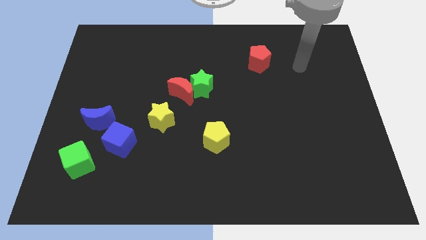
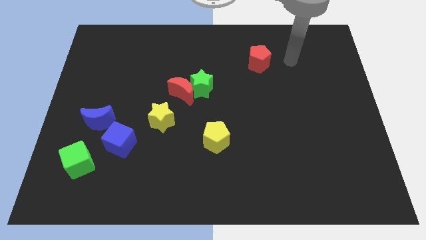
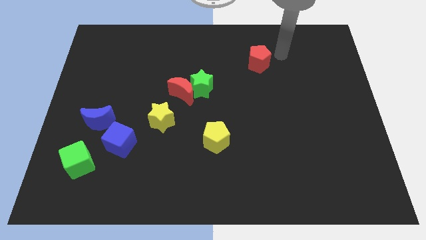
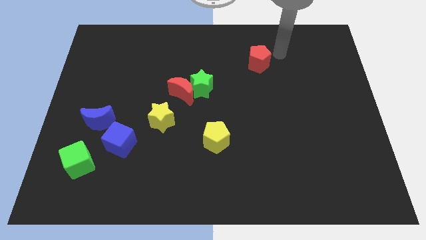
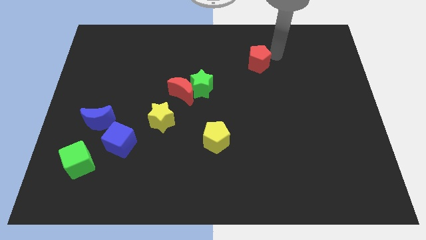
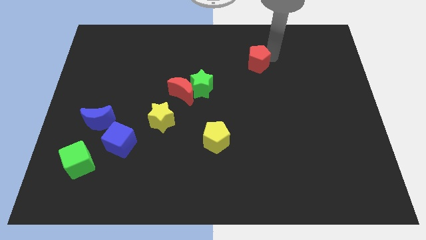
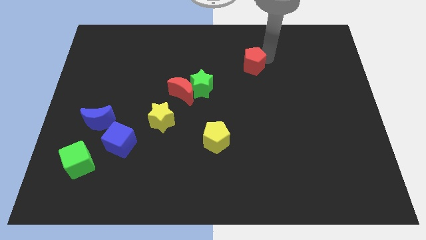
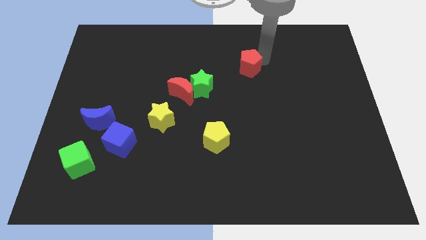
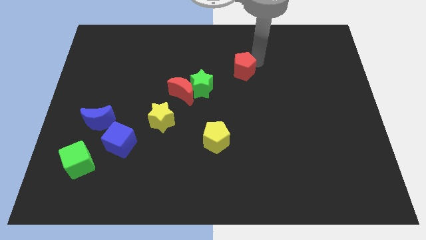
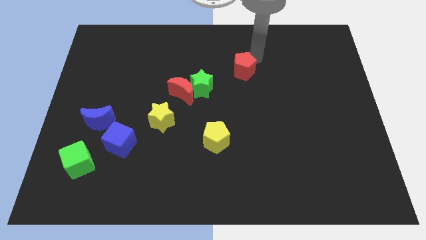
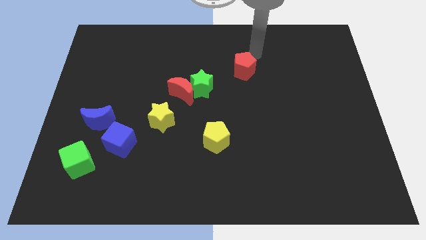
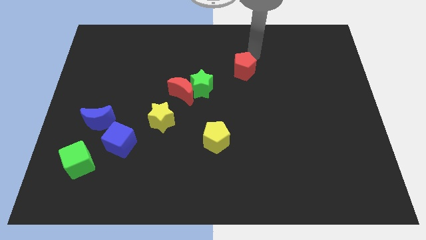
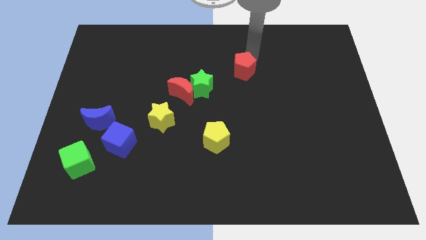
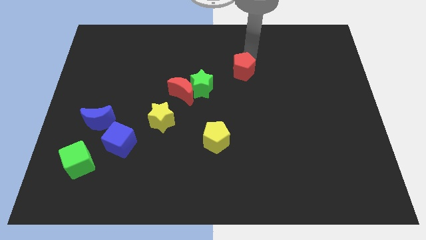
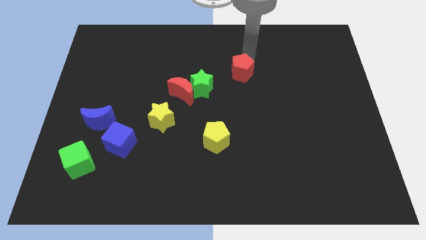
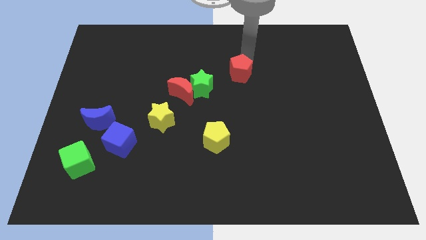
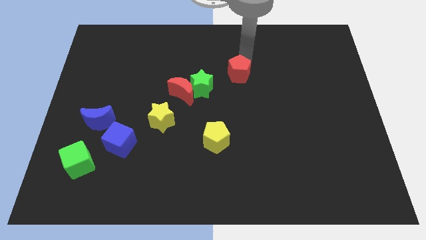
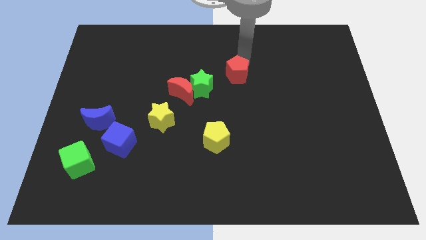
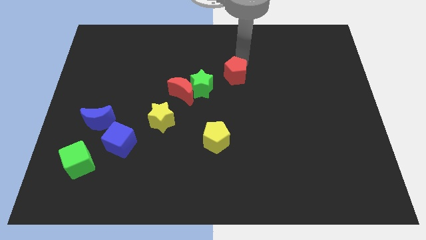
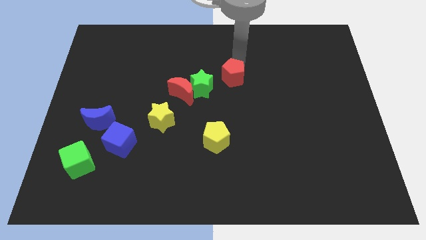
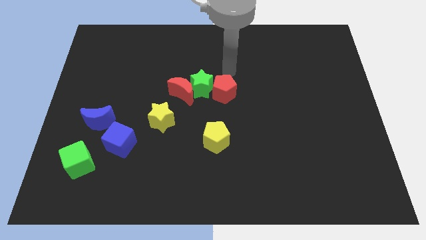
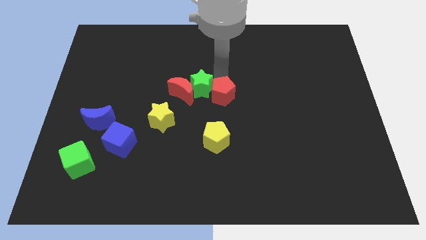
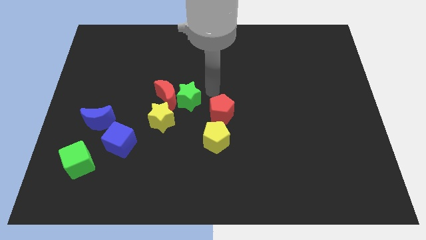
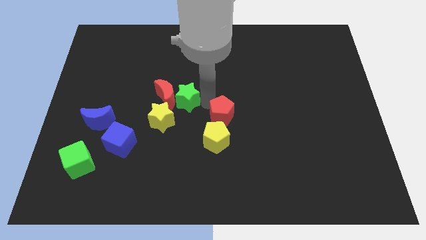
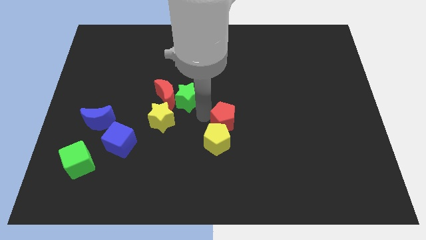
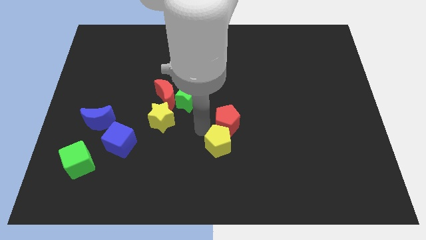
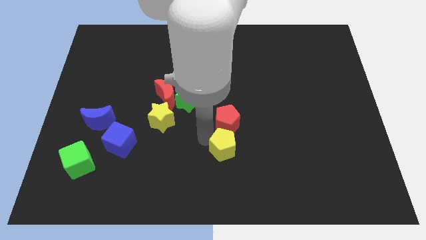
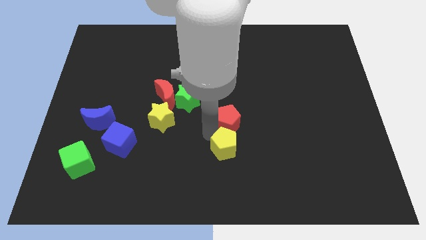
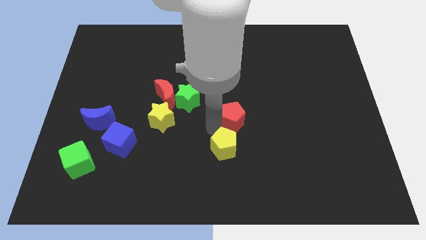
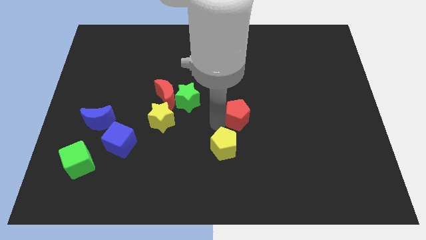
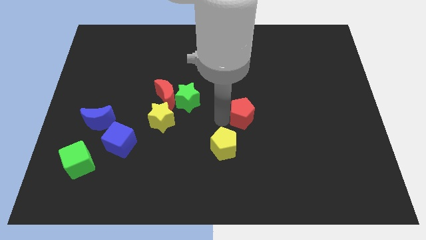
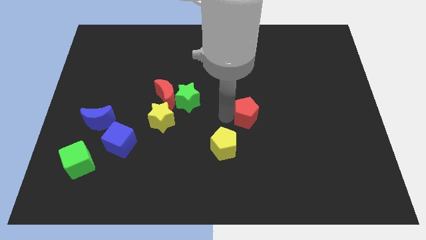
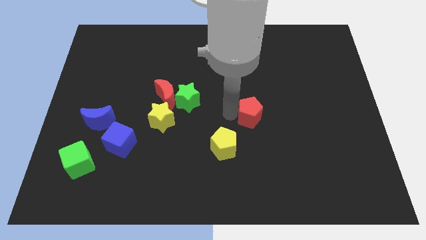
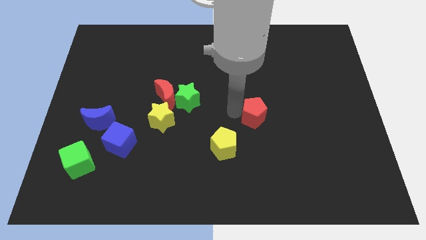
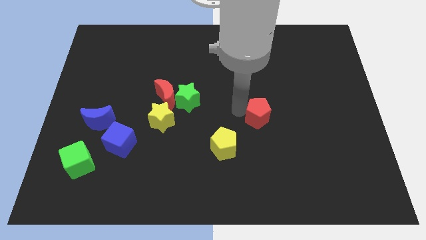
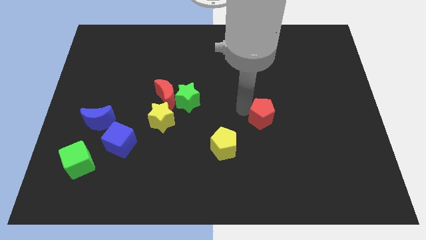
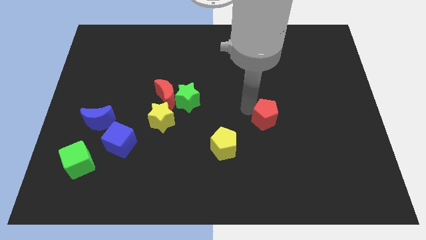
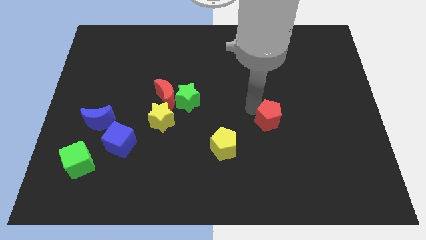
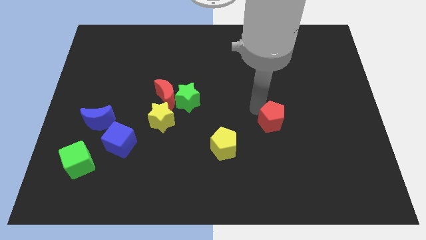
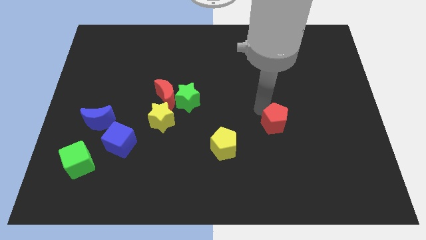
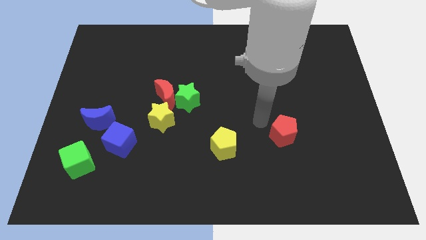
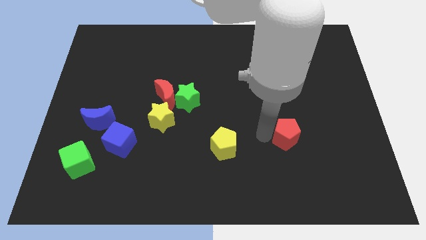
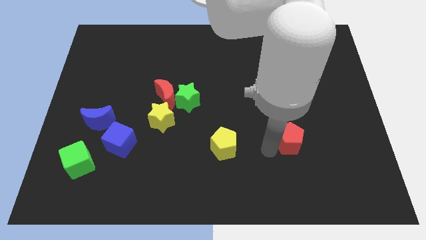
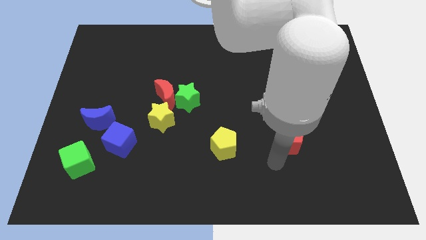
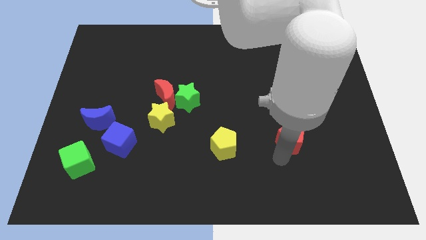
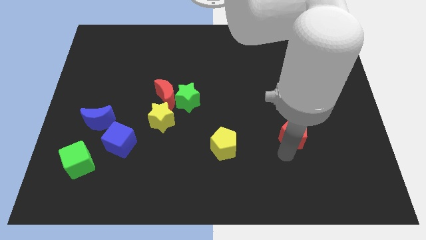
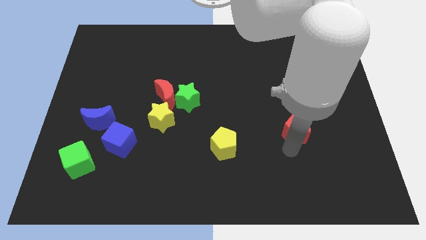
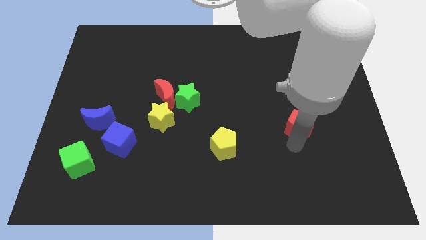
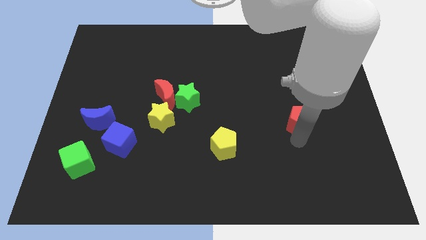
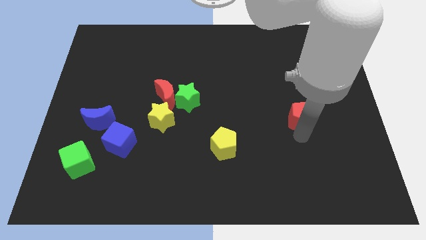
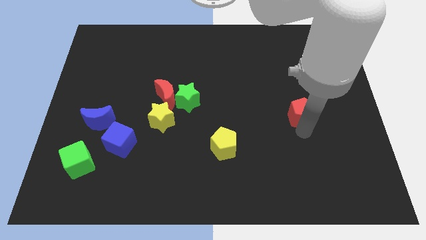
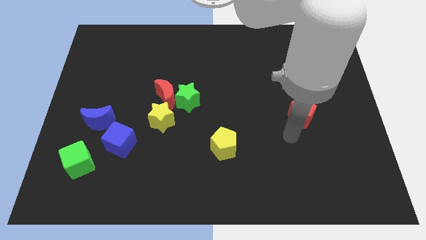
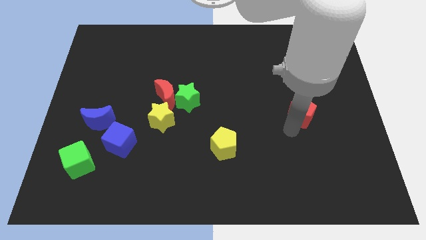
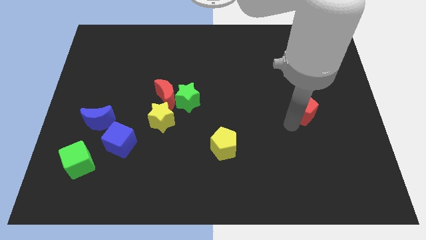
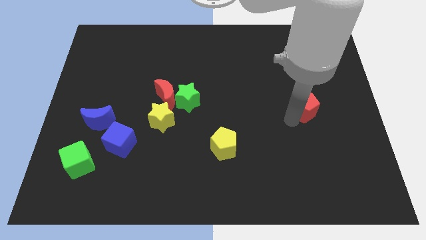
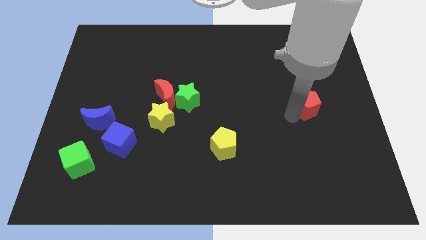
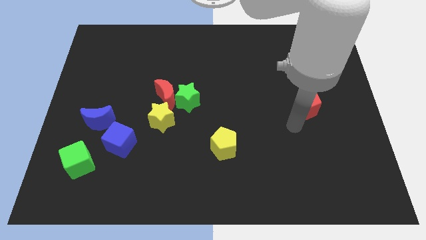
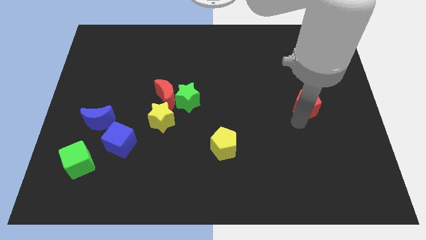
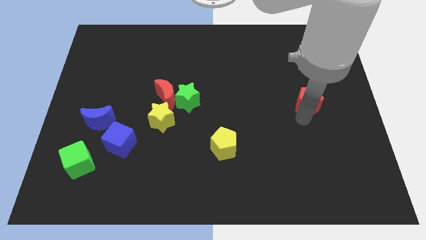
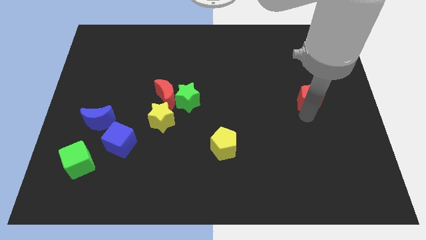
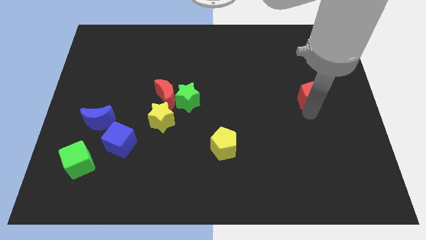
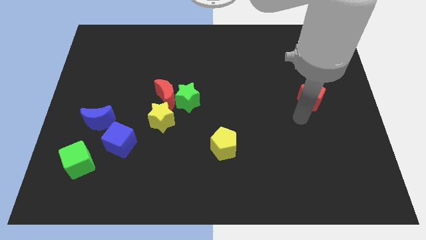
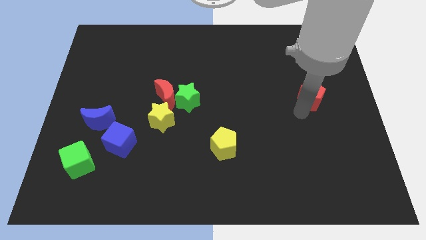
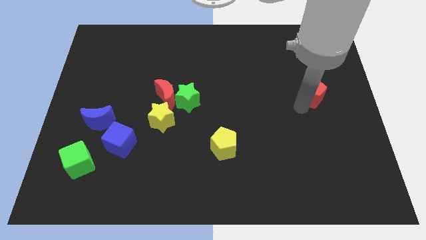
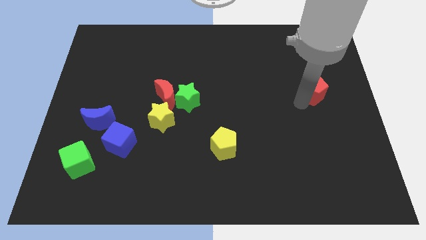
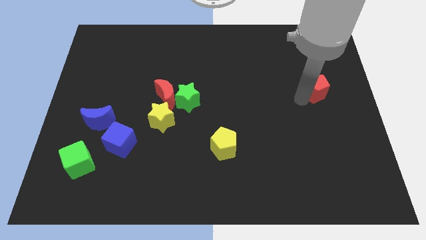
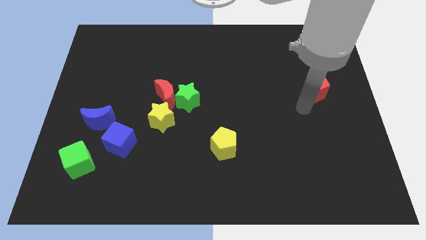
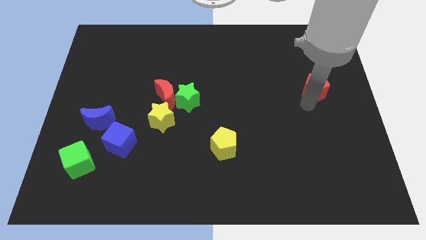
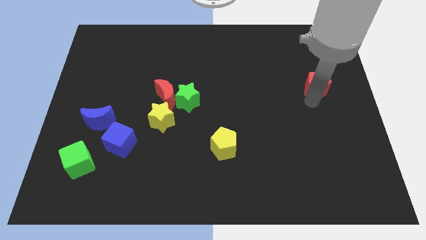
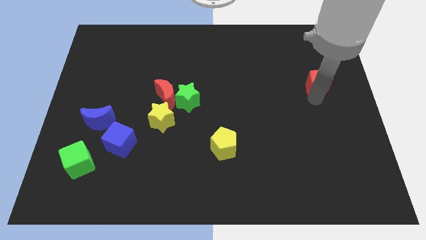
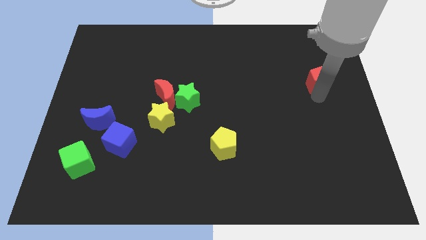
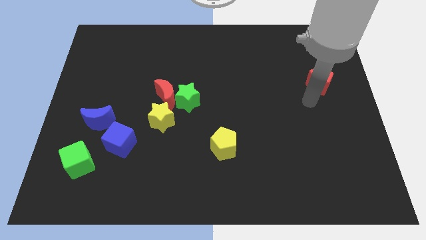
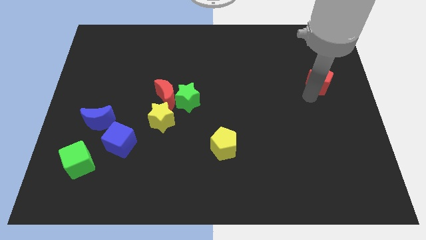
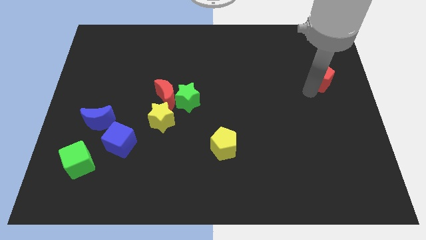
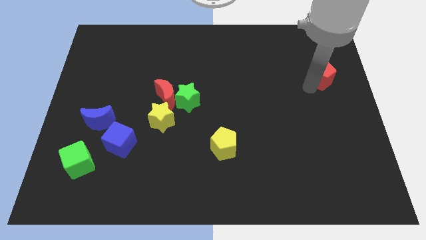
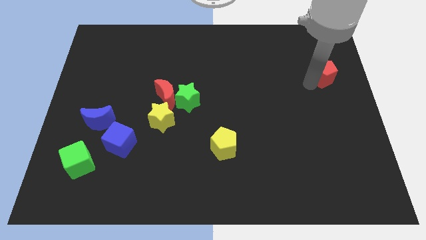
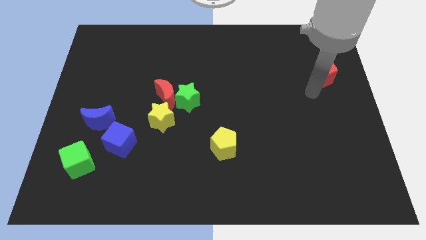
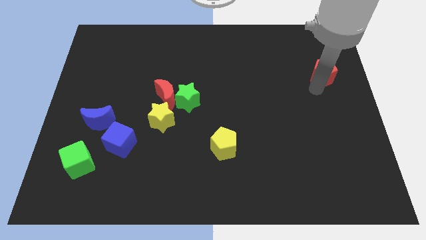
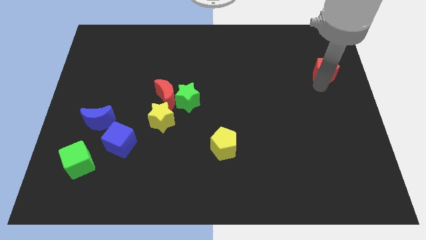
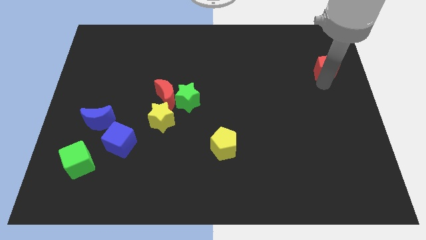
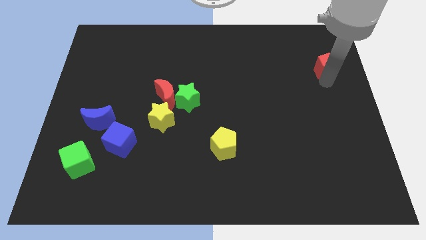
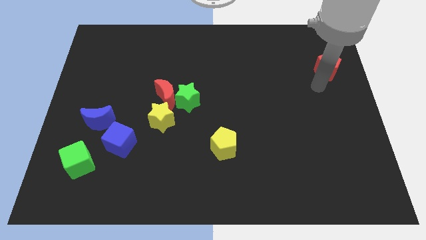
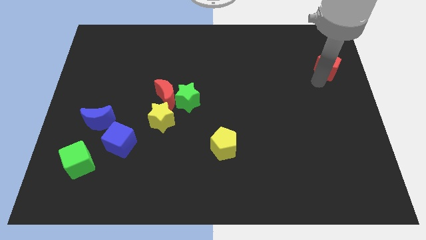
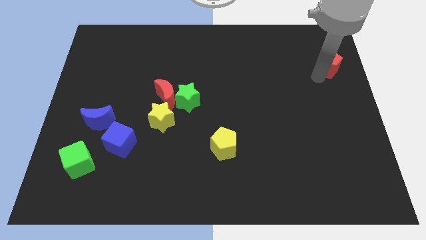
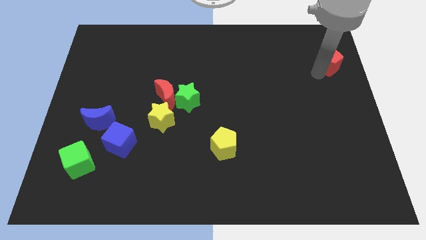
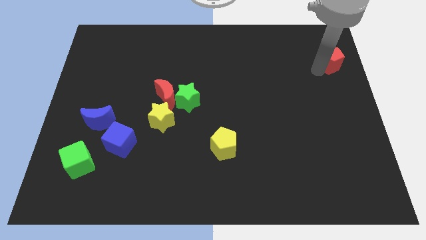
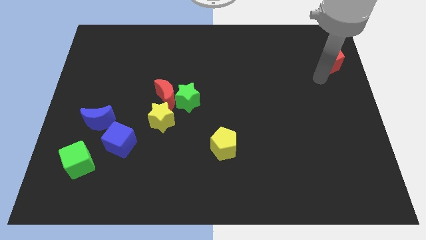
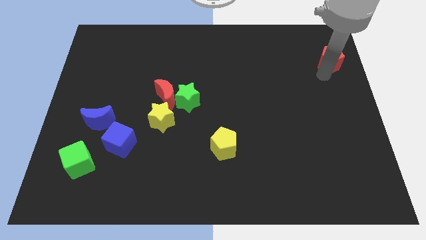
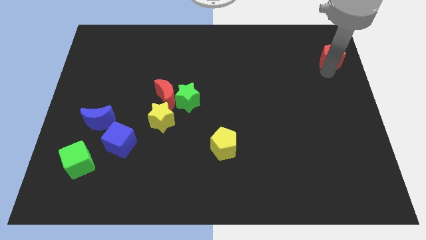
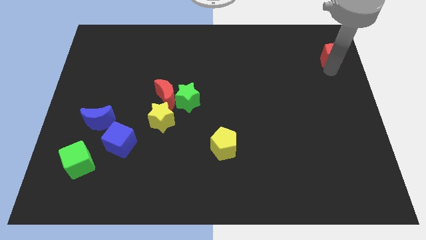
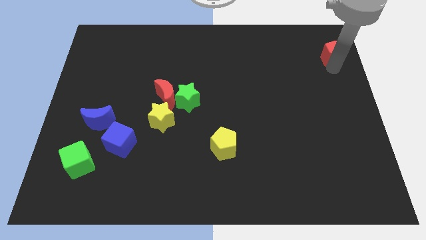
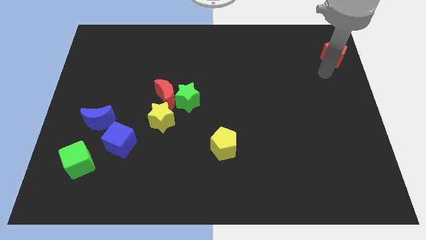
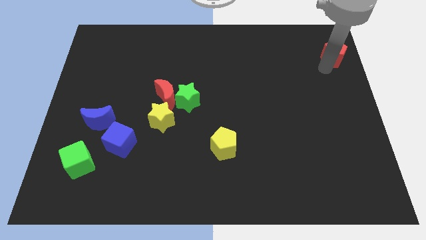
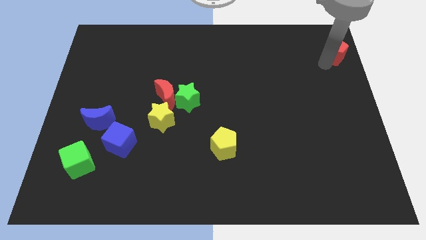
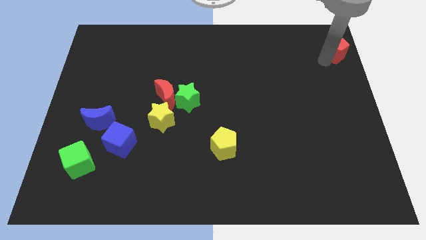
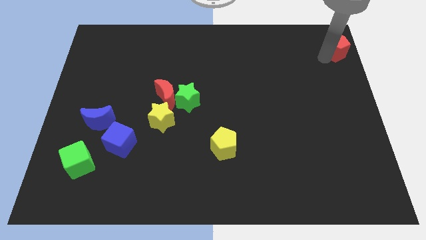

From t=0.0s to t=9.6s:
slide the red pentagon to the top right of the board
